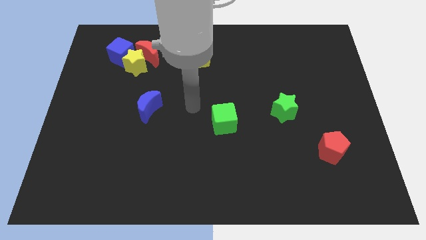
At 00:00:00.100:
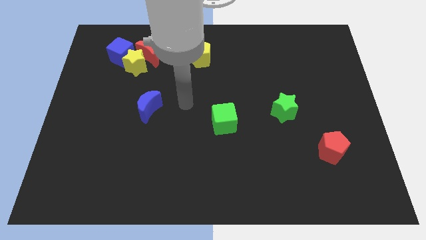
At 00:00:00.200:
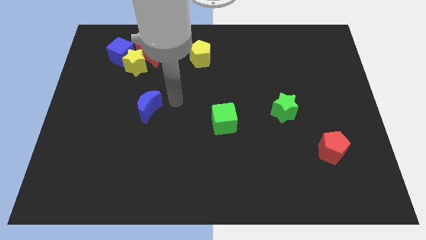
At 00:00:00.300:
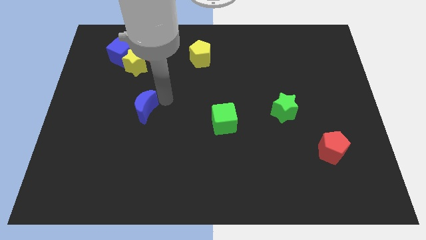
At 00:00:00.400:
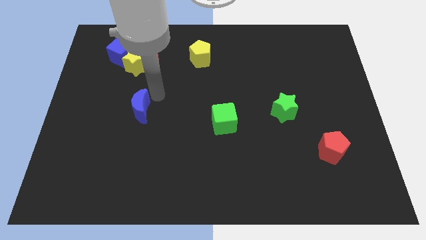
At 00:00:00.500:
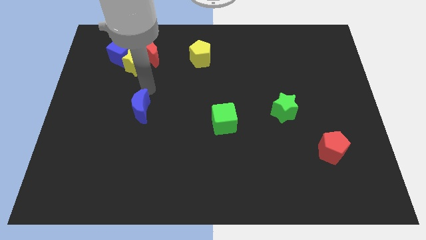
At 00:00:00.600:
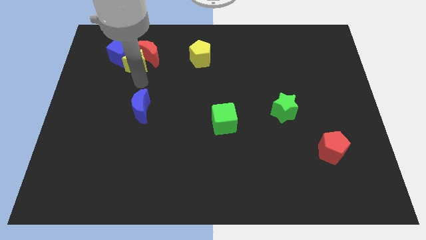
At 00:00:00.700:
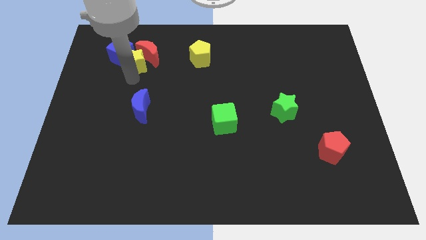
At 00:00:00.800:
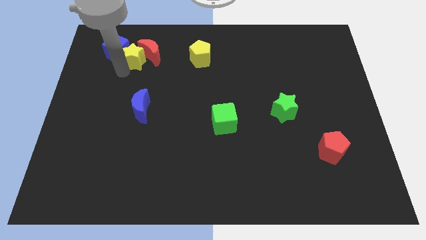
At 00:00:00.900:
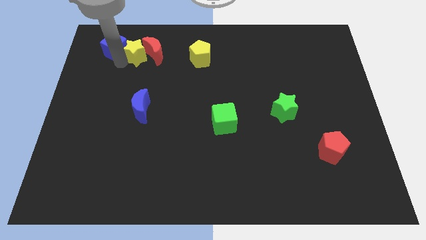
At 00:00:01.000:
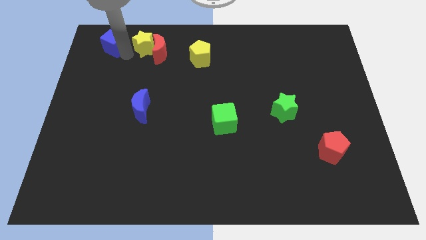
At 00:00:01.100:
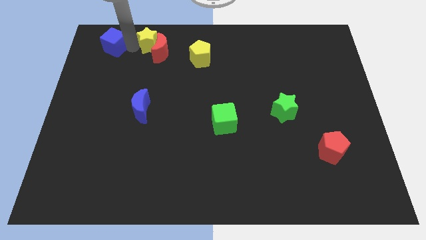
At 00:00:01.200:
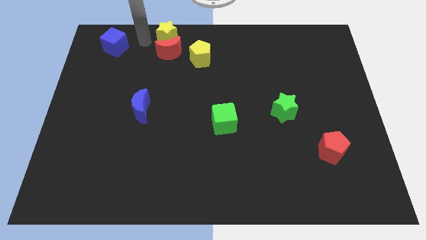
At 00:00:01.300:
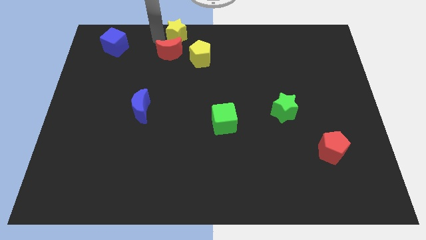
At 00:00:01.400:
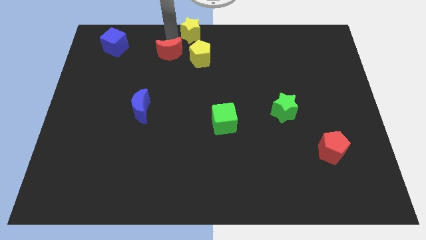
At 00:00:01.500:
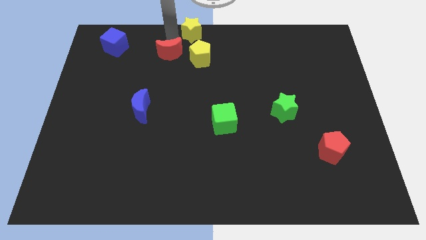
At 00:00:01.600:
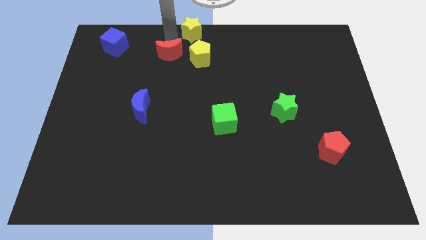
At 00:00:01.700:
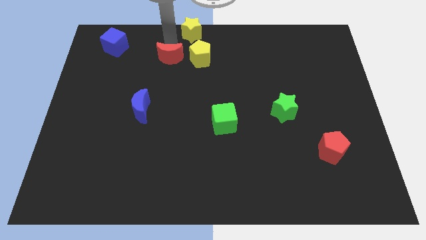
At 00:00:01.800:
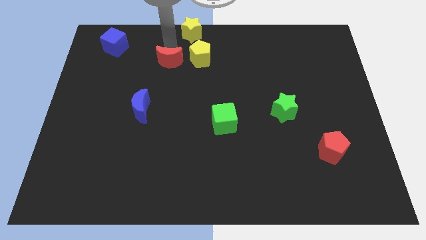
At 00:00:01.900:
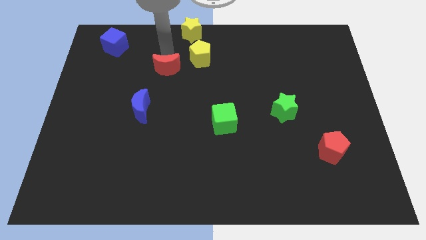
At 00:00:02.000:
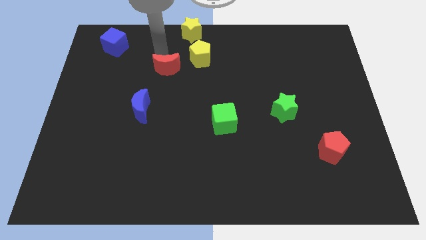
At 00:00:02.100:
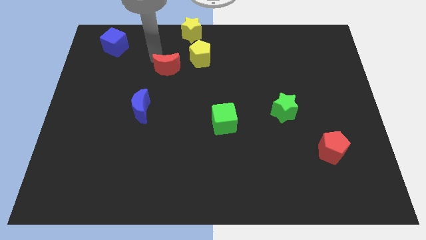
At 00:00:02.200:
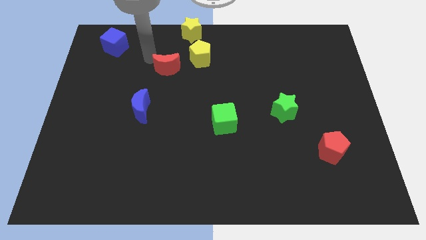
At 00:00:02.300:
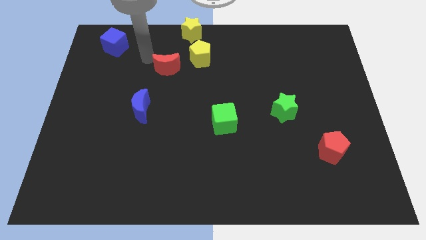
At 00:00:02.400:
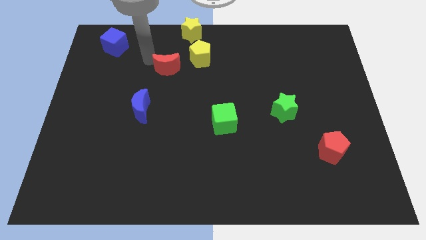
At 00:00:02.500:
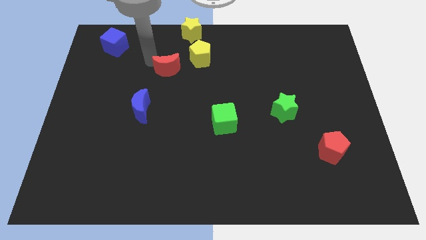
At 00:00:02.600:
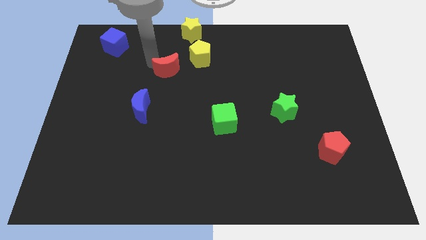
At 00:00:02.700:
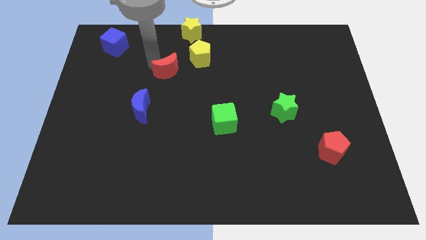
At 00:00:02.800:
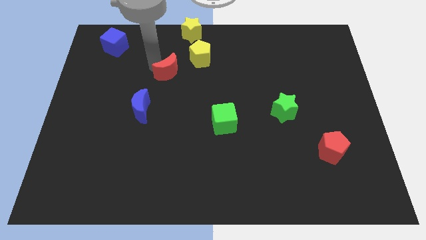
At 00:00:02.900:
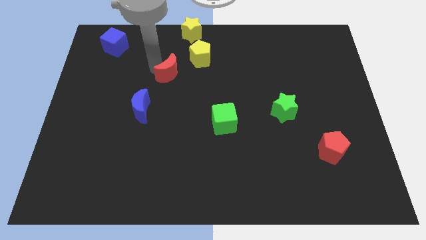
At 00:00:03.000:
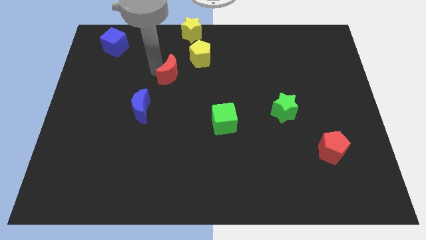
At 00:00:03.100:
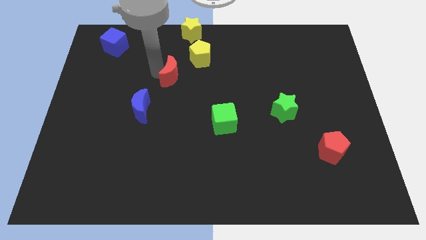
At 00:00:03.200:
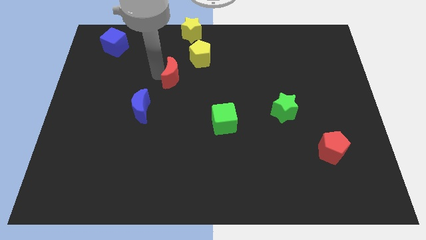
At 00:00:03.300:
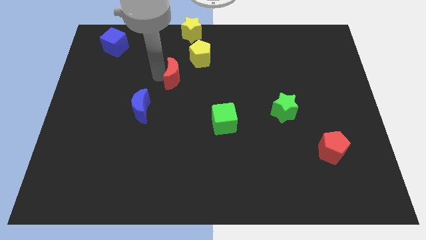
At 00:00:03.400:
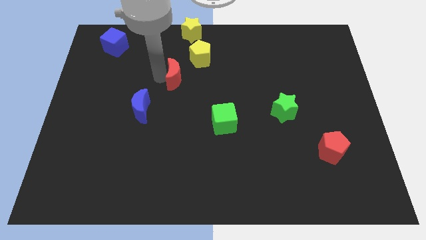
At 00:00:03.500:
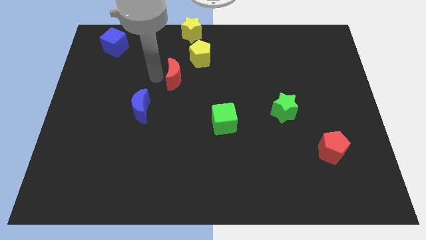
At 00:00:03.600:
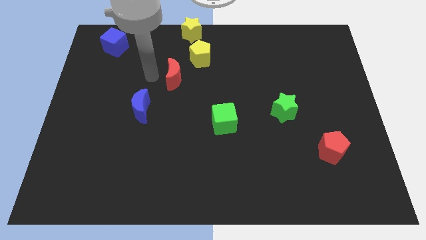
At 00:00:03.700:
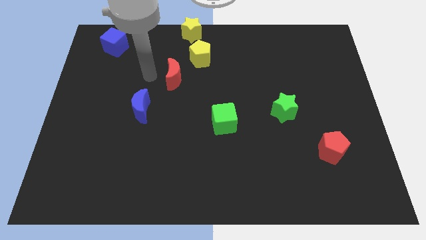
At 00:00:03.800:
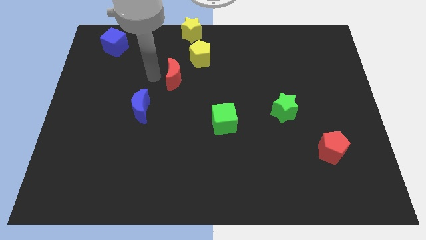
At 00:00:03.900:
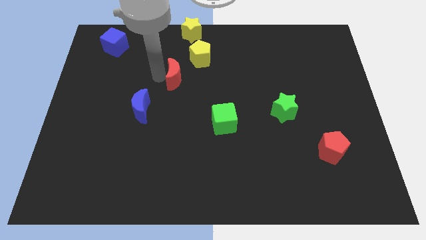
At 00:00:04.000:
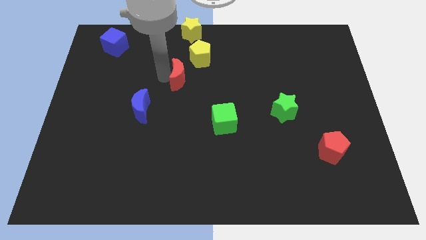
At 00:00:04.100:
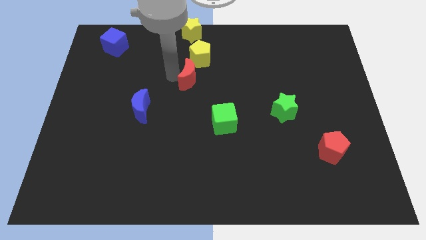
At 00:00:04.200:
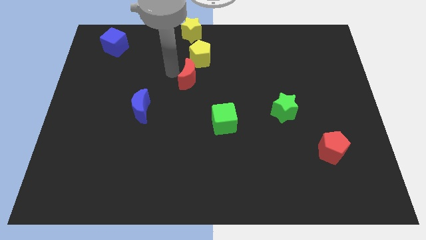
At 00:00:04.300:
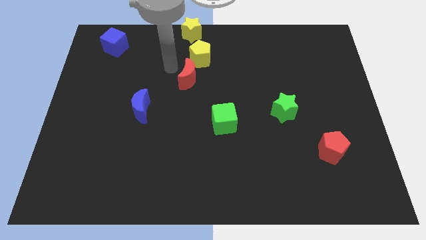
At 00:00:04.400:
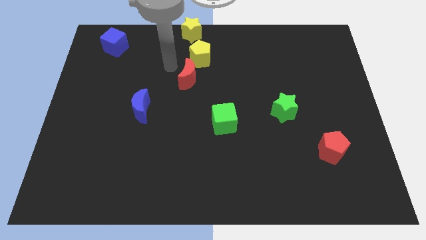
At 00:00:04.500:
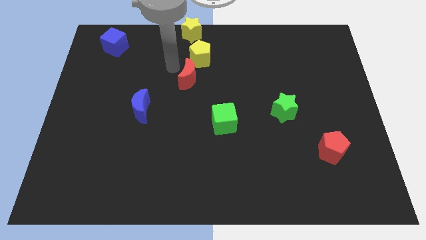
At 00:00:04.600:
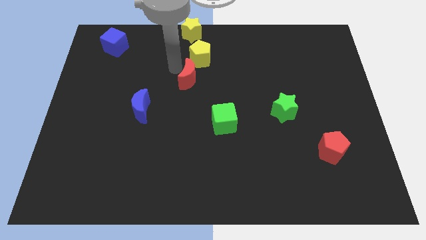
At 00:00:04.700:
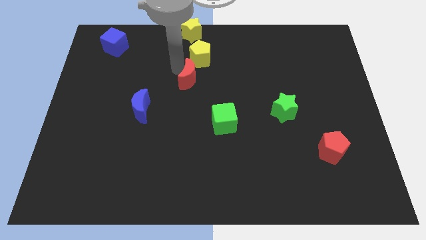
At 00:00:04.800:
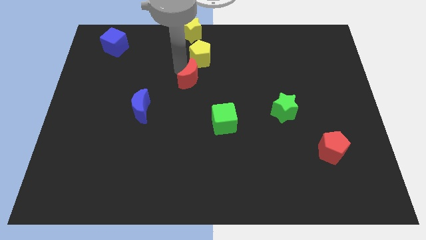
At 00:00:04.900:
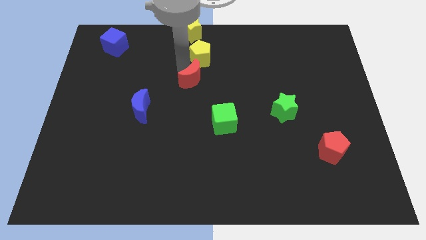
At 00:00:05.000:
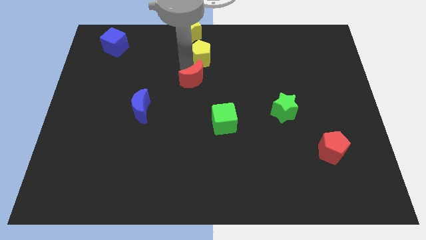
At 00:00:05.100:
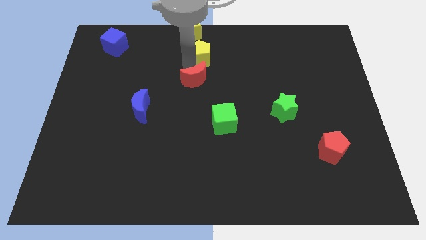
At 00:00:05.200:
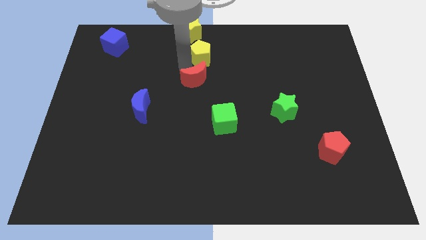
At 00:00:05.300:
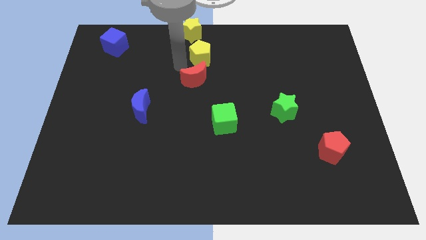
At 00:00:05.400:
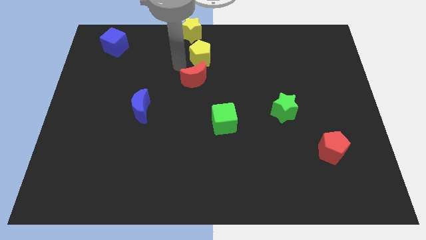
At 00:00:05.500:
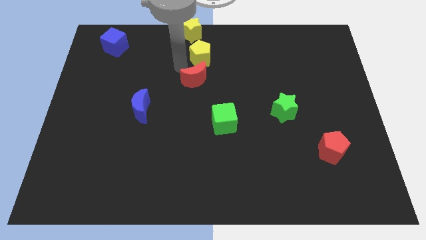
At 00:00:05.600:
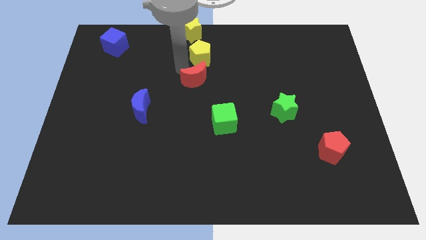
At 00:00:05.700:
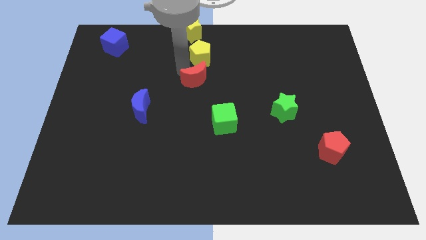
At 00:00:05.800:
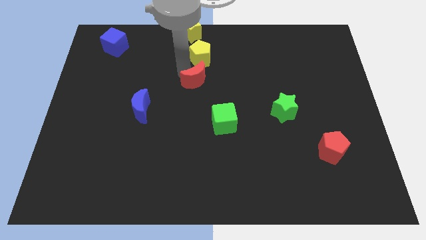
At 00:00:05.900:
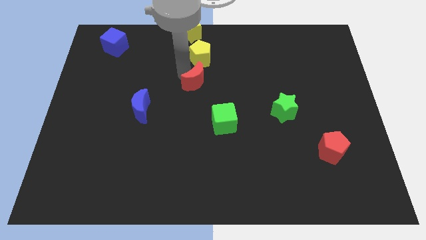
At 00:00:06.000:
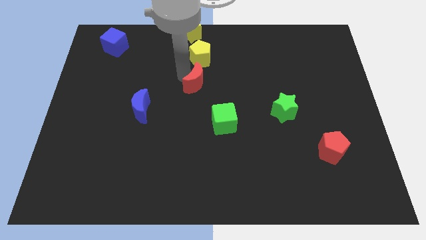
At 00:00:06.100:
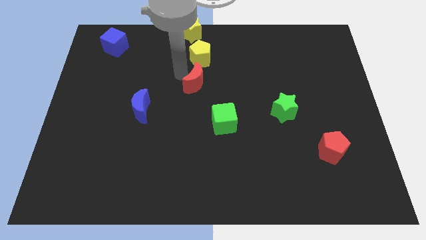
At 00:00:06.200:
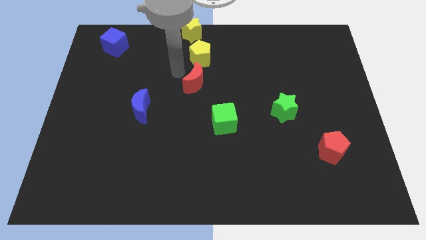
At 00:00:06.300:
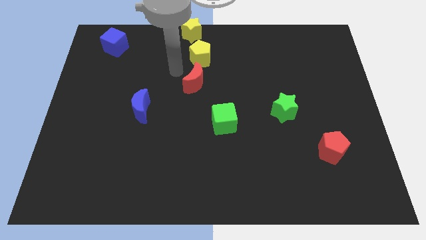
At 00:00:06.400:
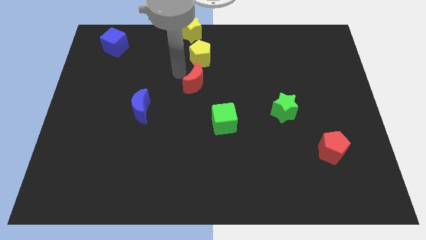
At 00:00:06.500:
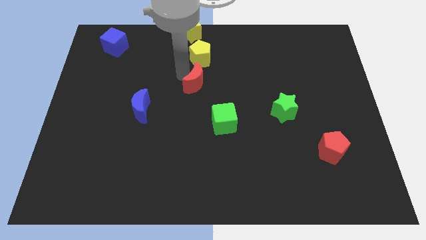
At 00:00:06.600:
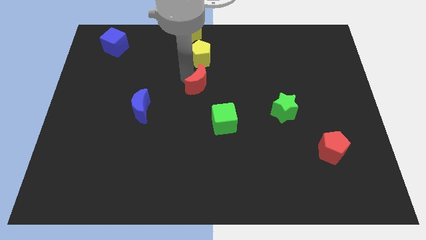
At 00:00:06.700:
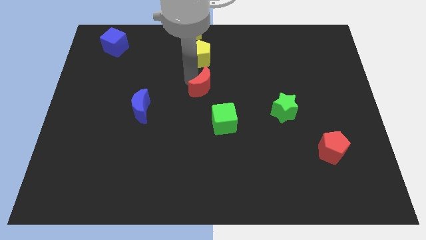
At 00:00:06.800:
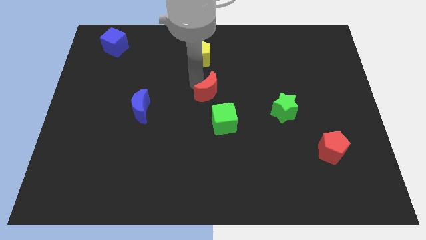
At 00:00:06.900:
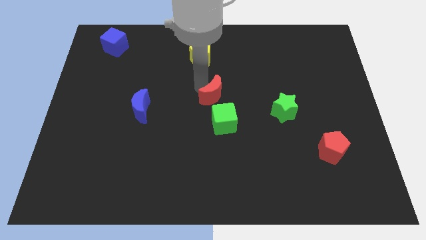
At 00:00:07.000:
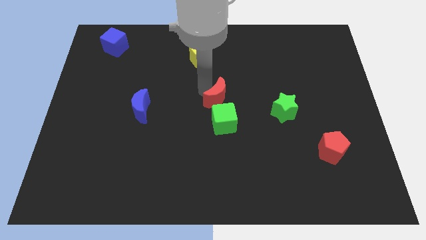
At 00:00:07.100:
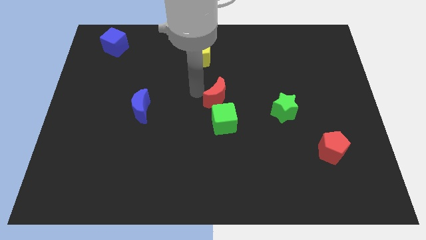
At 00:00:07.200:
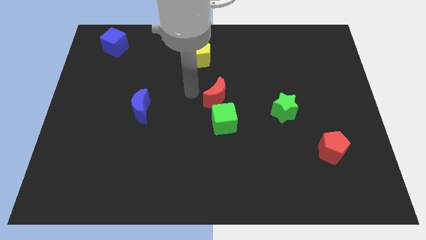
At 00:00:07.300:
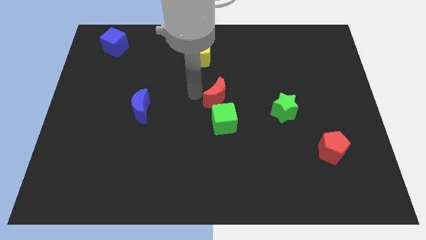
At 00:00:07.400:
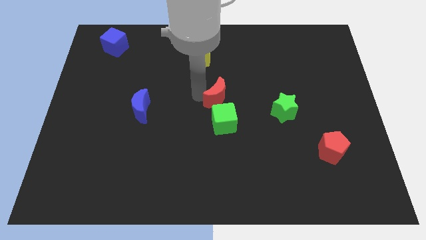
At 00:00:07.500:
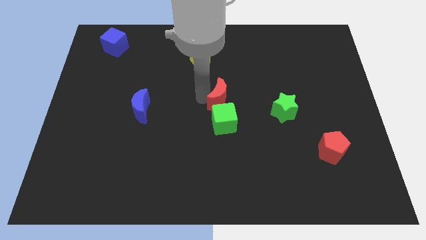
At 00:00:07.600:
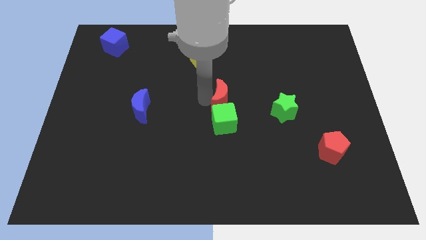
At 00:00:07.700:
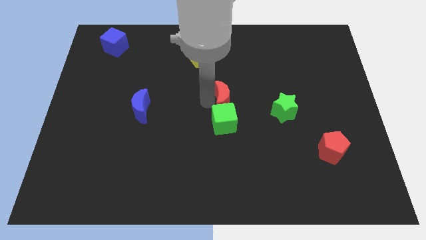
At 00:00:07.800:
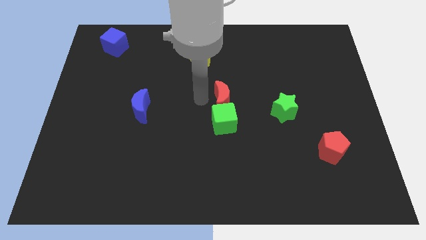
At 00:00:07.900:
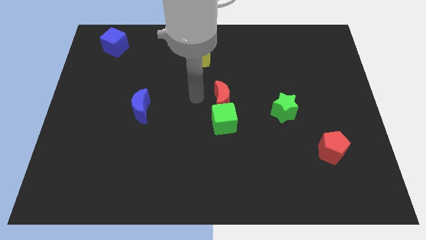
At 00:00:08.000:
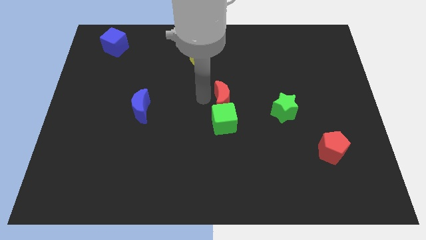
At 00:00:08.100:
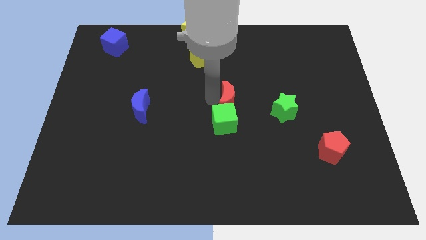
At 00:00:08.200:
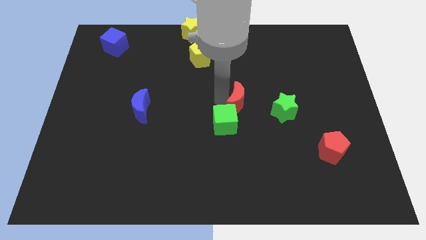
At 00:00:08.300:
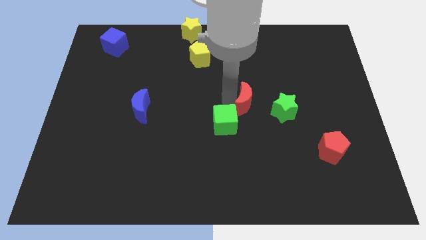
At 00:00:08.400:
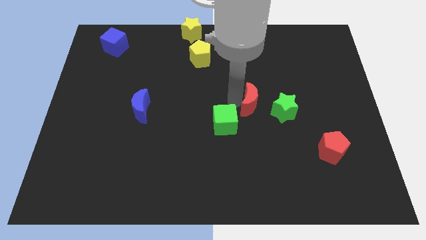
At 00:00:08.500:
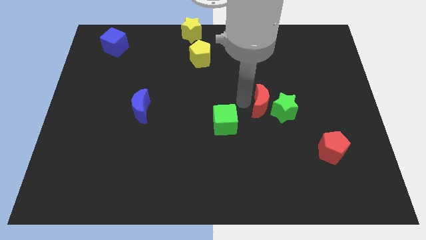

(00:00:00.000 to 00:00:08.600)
put the red moon to the green star
